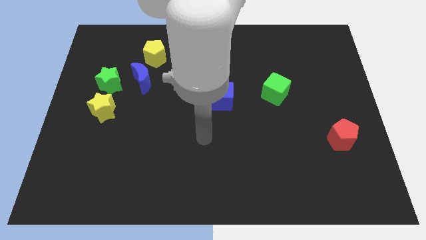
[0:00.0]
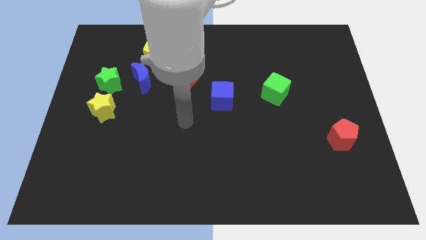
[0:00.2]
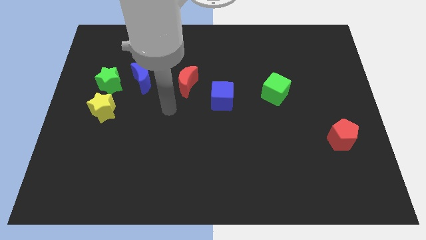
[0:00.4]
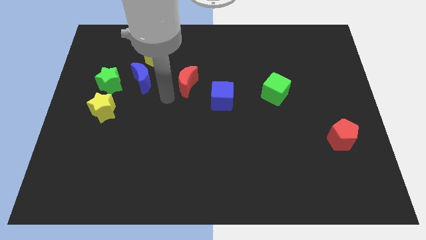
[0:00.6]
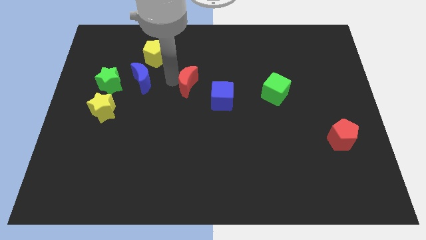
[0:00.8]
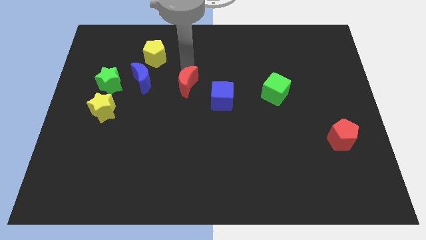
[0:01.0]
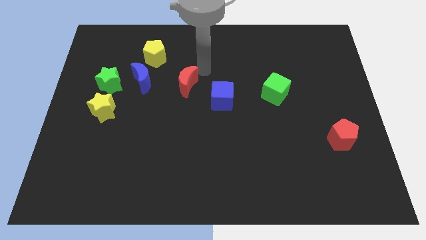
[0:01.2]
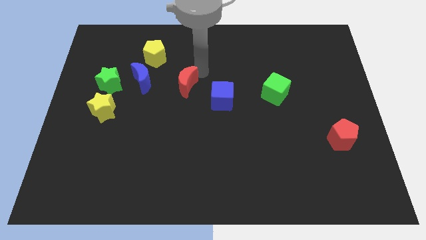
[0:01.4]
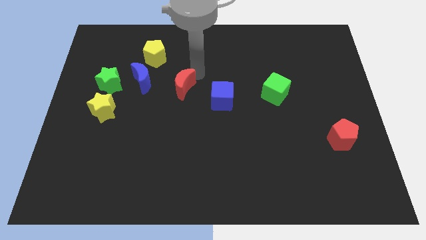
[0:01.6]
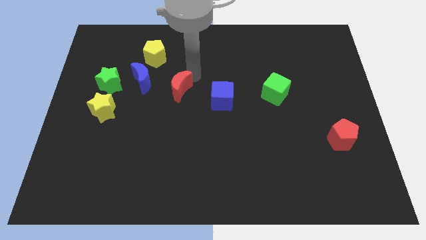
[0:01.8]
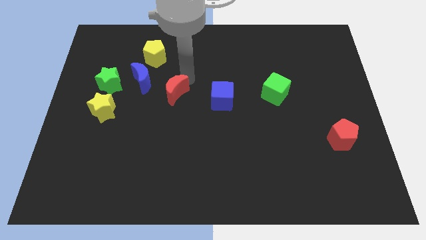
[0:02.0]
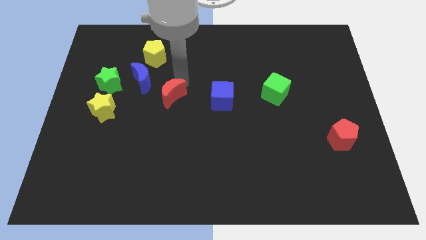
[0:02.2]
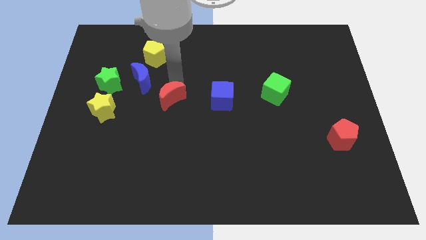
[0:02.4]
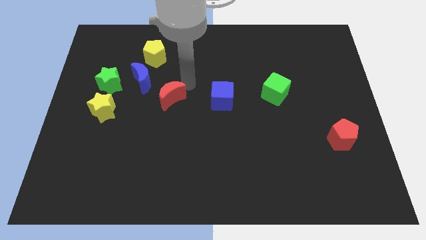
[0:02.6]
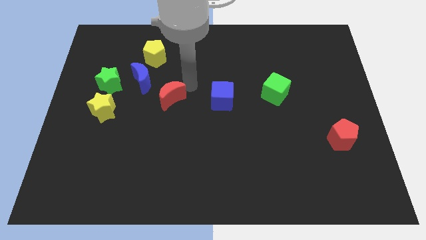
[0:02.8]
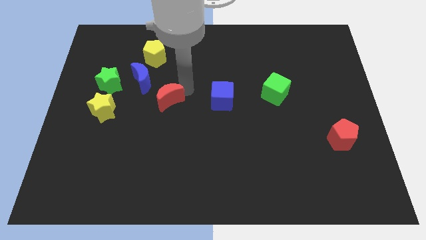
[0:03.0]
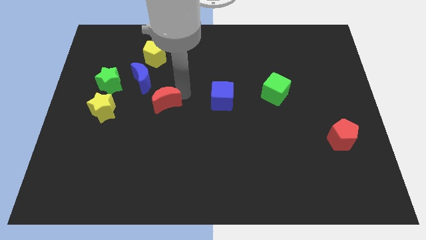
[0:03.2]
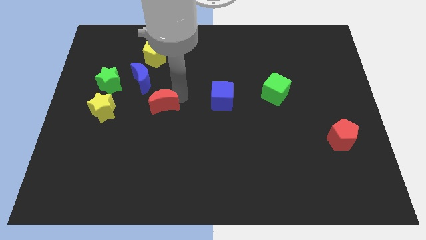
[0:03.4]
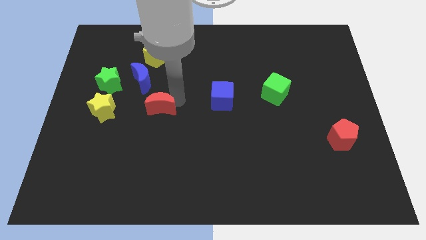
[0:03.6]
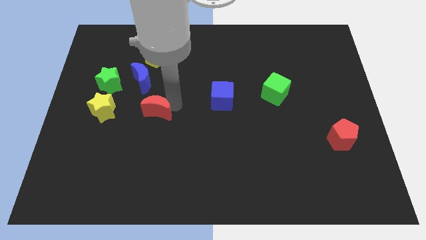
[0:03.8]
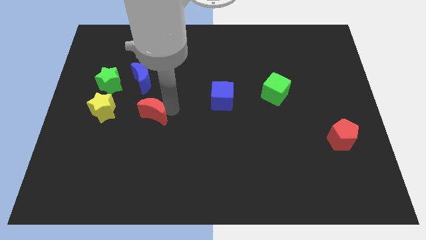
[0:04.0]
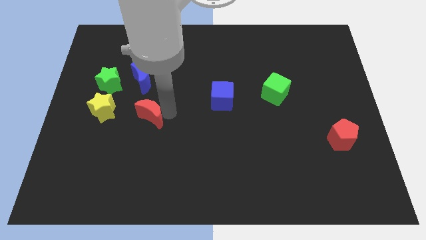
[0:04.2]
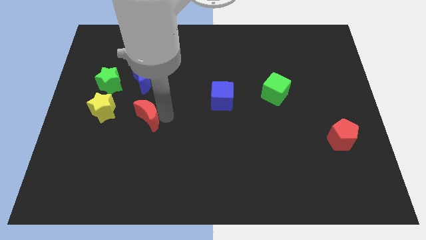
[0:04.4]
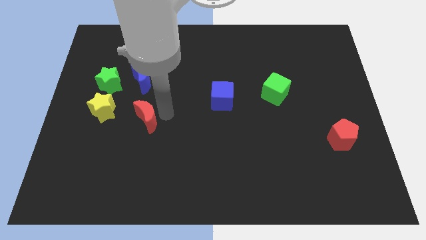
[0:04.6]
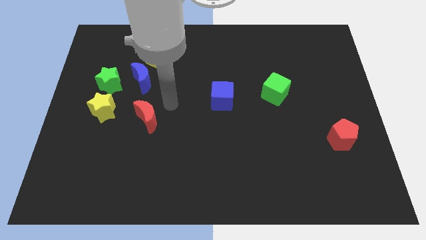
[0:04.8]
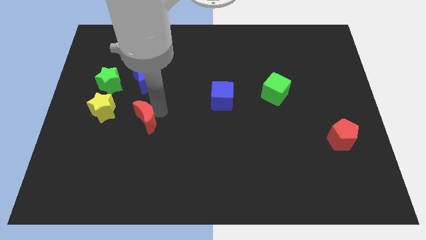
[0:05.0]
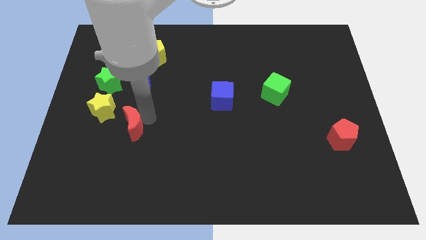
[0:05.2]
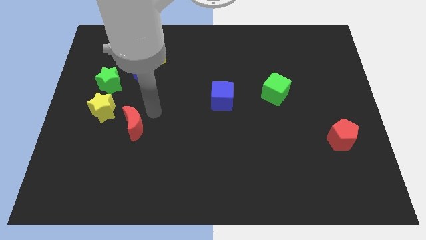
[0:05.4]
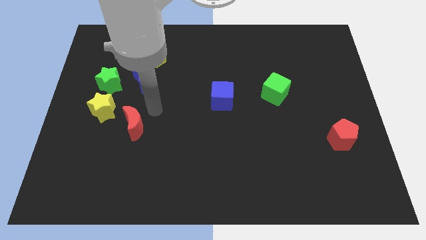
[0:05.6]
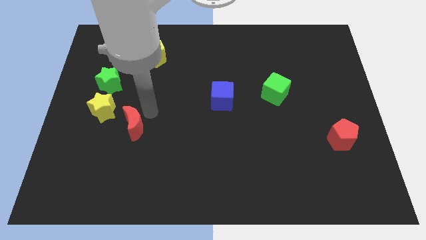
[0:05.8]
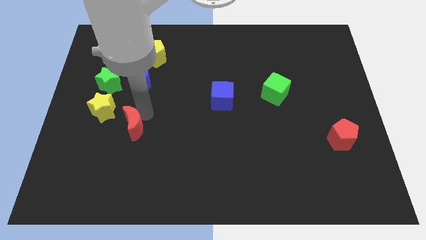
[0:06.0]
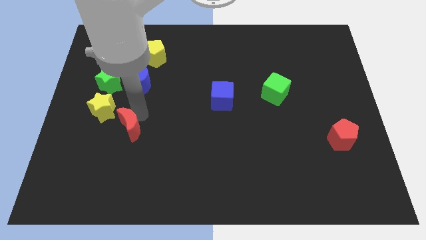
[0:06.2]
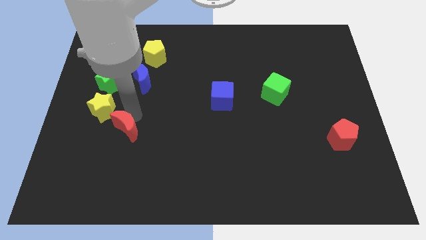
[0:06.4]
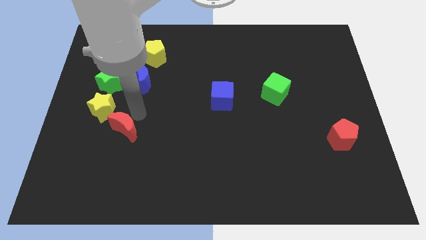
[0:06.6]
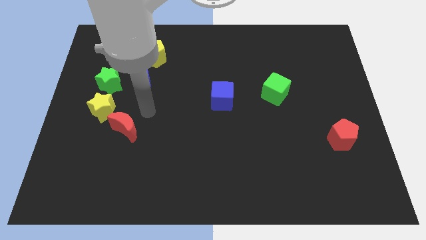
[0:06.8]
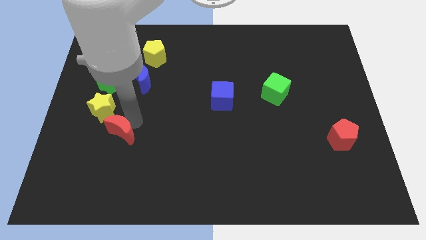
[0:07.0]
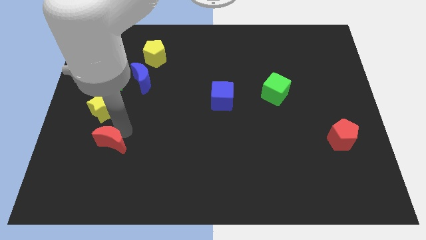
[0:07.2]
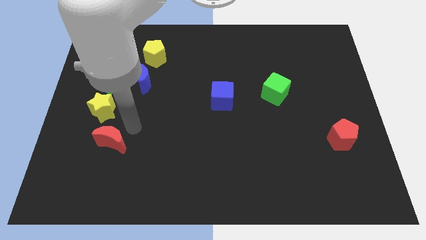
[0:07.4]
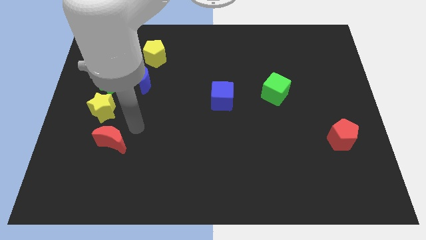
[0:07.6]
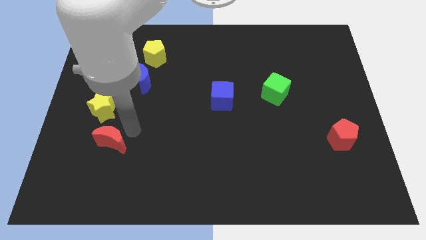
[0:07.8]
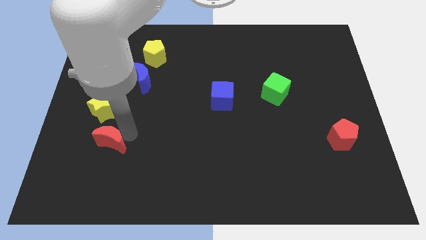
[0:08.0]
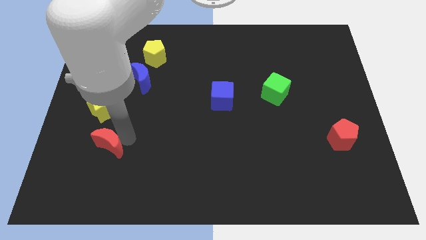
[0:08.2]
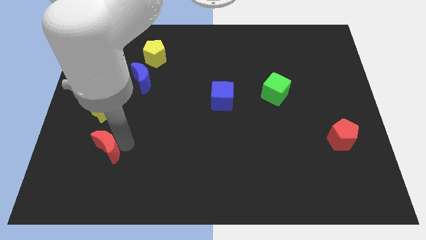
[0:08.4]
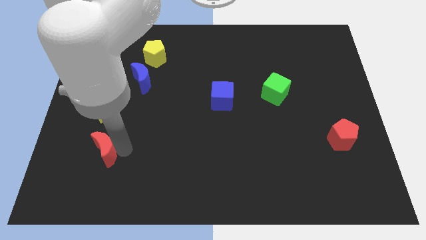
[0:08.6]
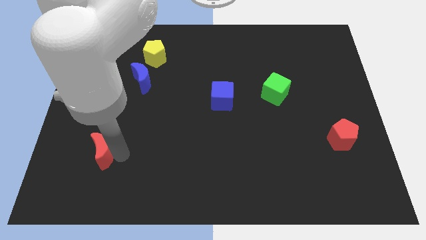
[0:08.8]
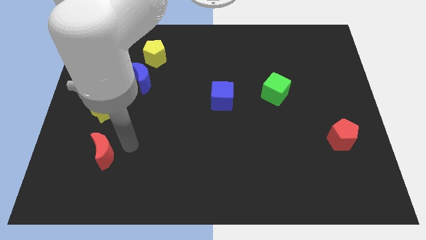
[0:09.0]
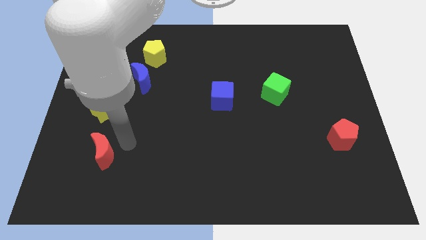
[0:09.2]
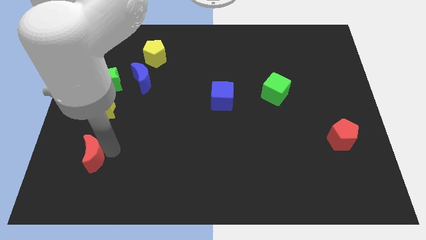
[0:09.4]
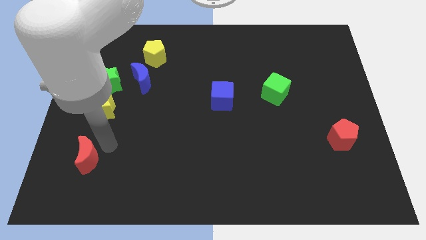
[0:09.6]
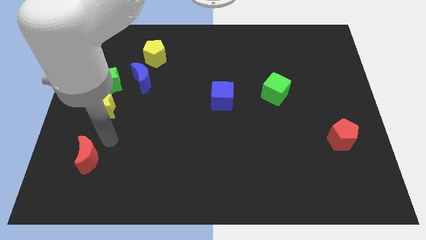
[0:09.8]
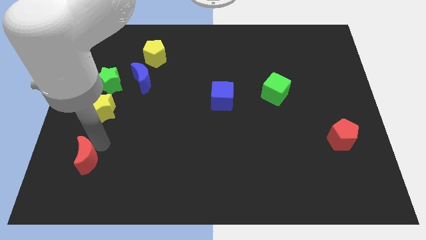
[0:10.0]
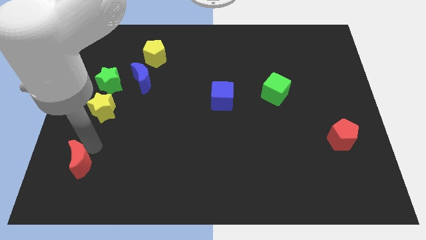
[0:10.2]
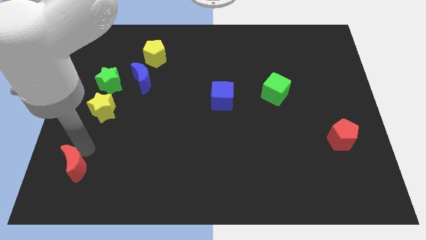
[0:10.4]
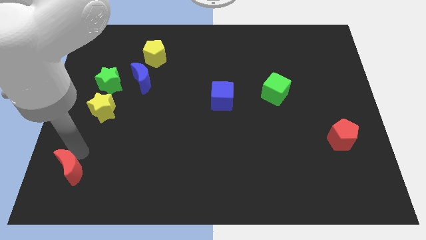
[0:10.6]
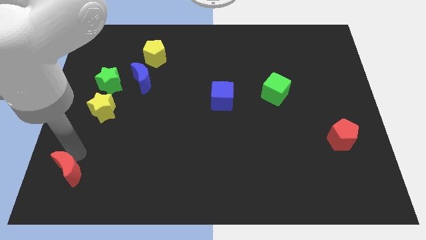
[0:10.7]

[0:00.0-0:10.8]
move the red moon to the bottom left

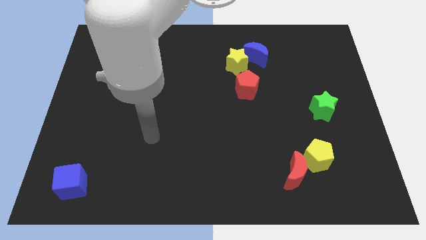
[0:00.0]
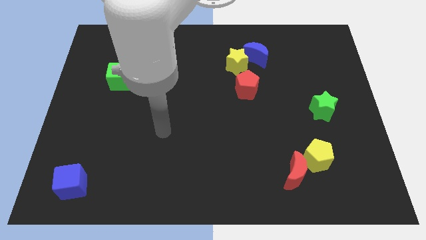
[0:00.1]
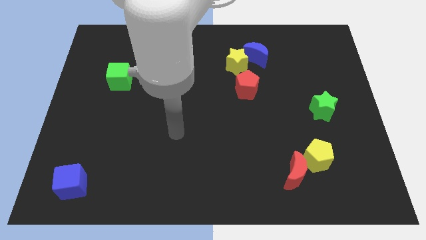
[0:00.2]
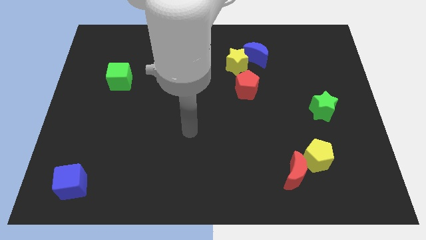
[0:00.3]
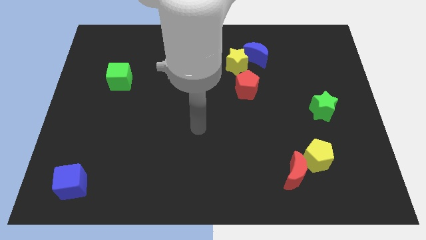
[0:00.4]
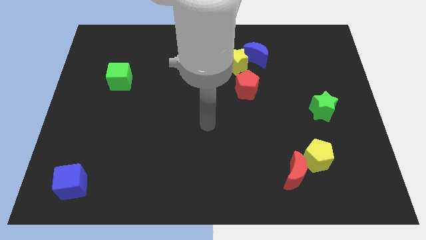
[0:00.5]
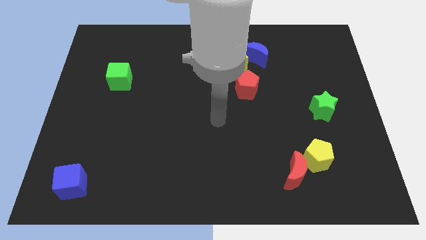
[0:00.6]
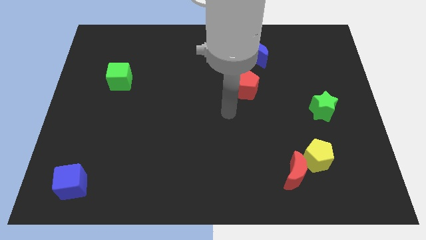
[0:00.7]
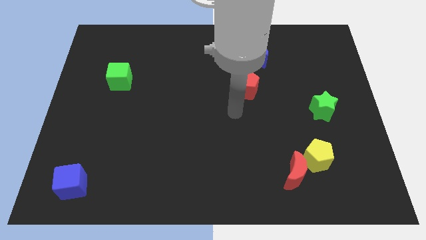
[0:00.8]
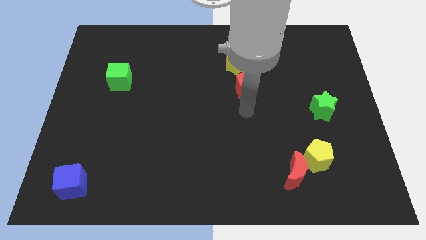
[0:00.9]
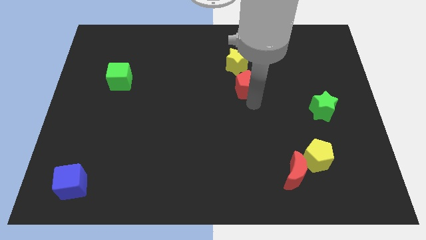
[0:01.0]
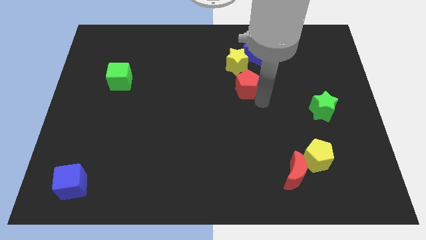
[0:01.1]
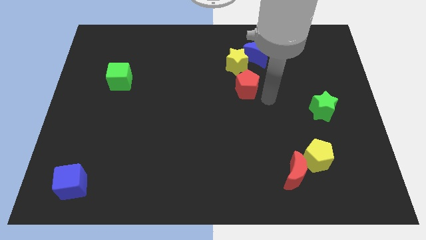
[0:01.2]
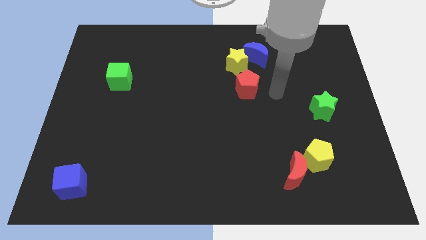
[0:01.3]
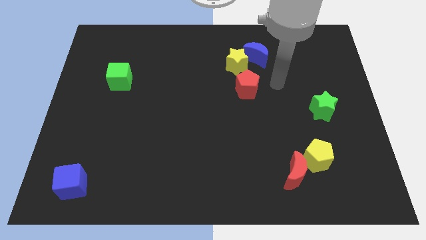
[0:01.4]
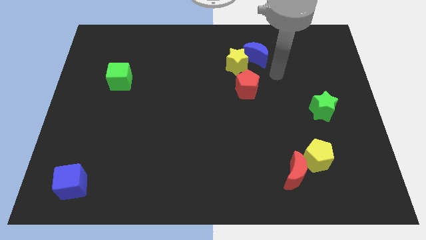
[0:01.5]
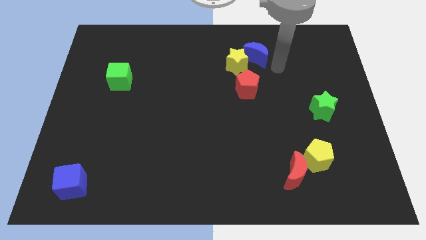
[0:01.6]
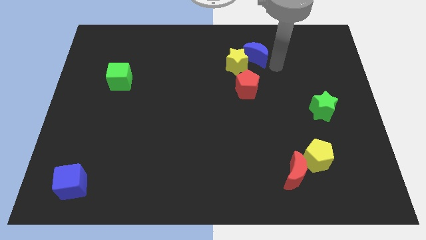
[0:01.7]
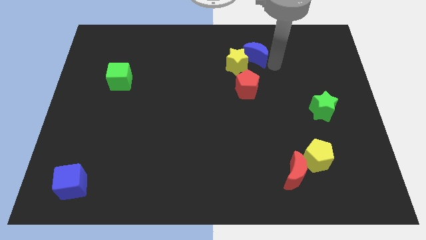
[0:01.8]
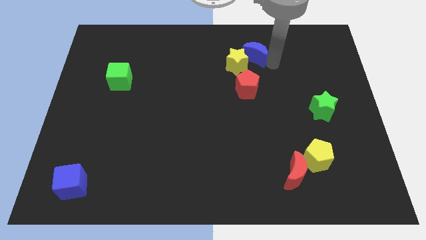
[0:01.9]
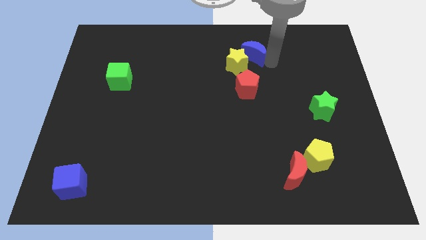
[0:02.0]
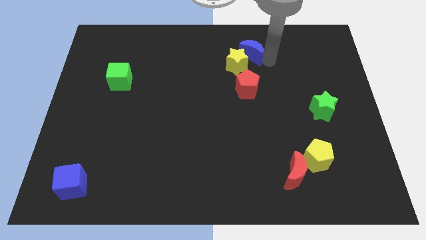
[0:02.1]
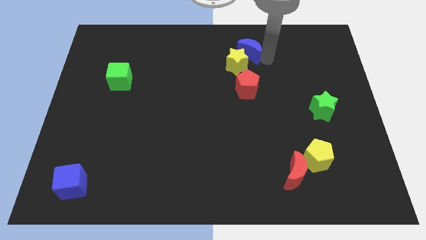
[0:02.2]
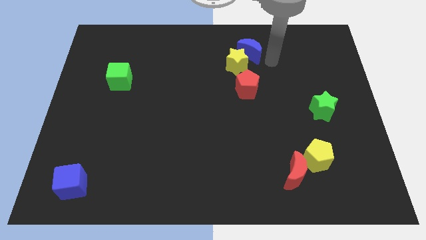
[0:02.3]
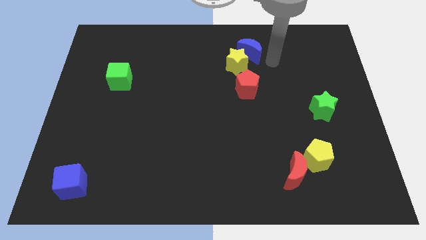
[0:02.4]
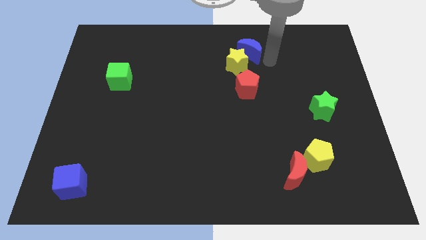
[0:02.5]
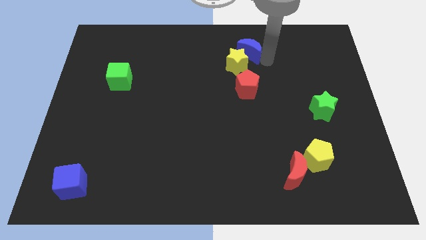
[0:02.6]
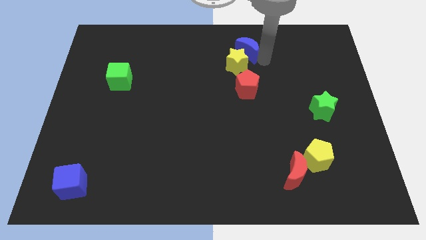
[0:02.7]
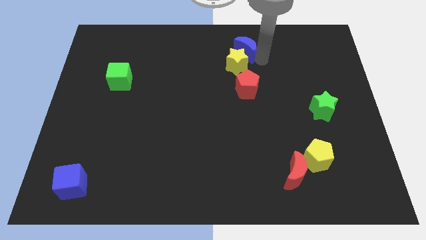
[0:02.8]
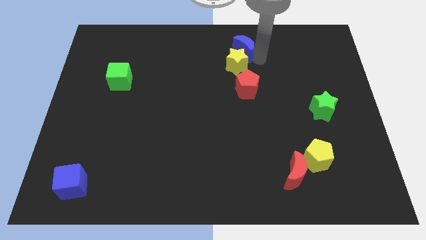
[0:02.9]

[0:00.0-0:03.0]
push the blue moon to the top side
